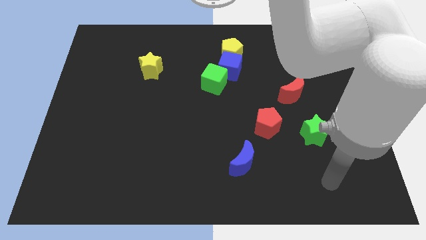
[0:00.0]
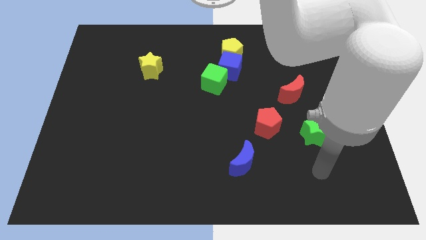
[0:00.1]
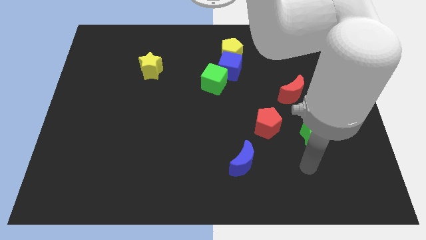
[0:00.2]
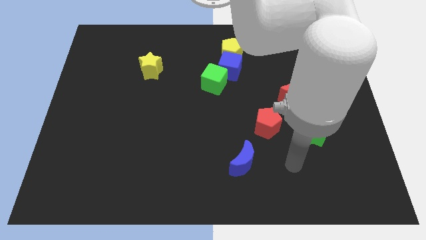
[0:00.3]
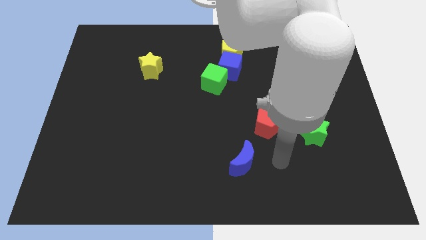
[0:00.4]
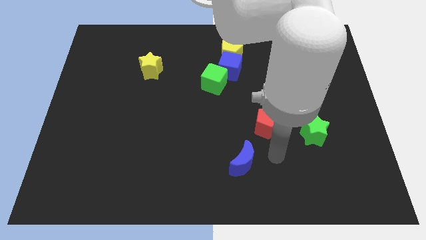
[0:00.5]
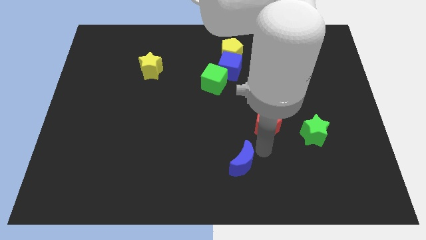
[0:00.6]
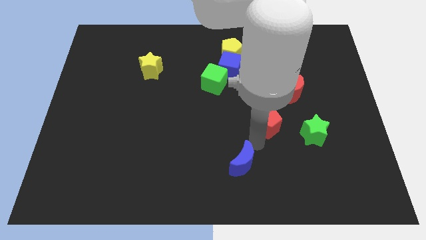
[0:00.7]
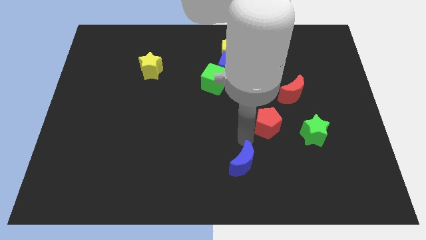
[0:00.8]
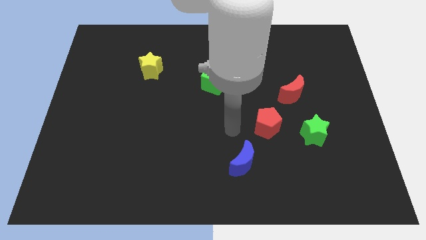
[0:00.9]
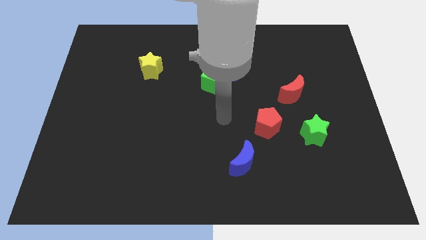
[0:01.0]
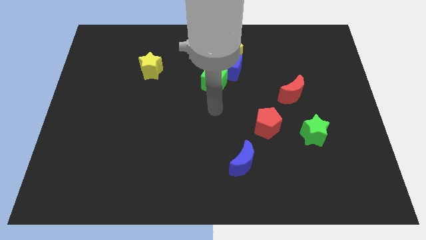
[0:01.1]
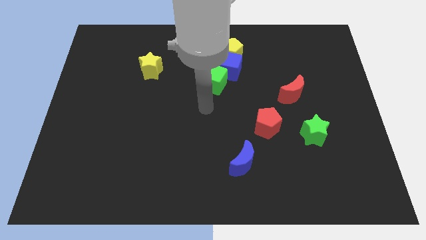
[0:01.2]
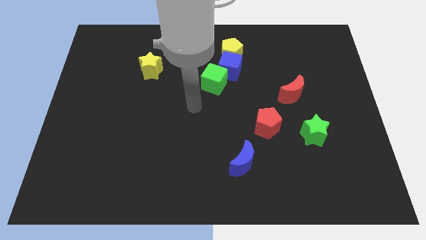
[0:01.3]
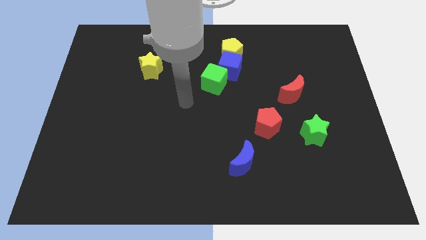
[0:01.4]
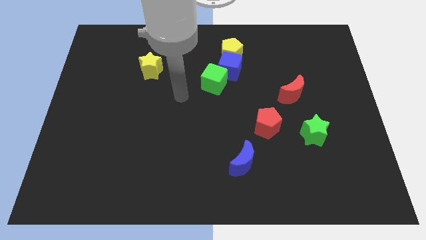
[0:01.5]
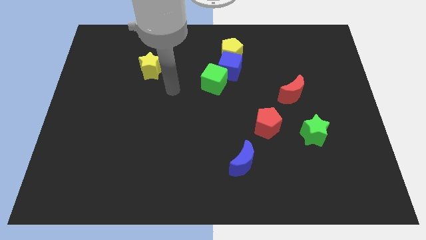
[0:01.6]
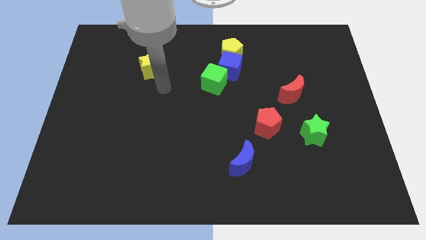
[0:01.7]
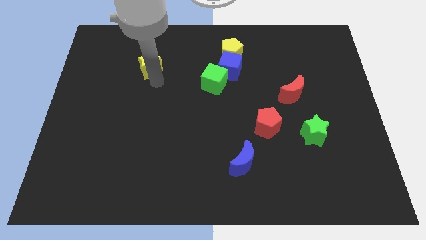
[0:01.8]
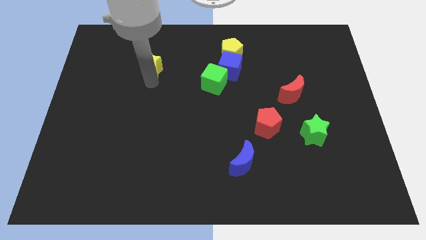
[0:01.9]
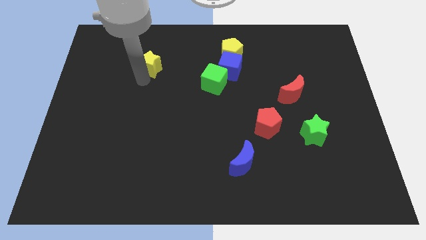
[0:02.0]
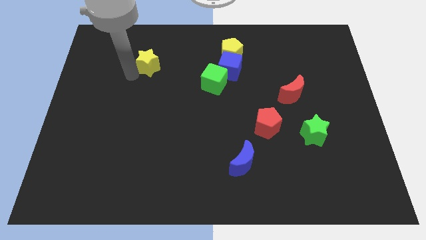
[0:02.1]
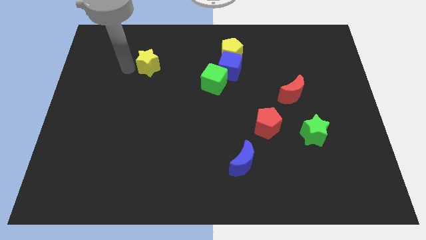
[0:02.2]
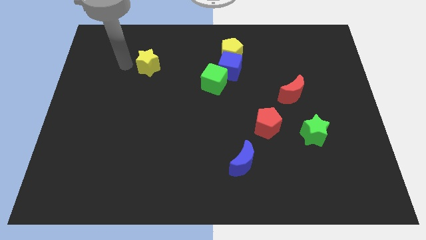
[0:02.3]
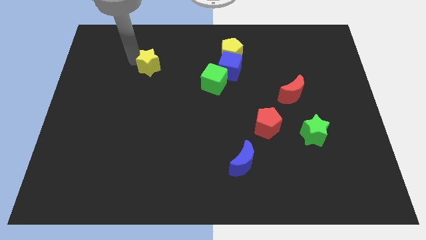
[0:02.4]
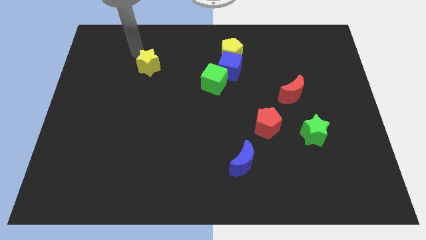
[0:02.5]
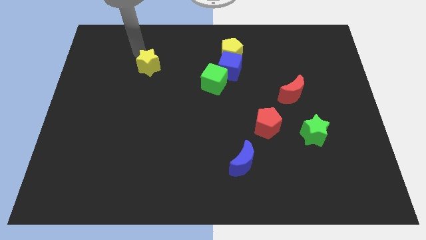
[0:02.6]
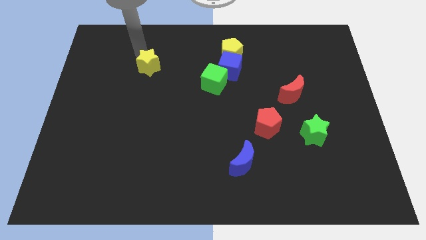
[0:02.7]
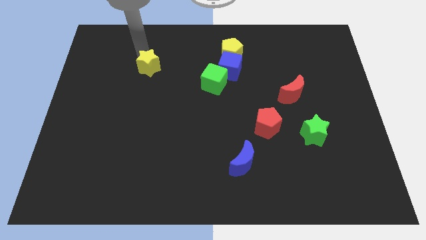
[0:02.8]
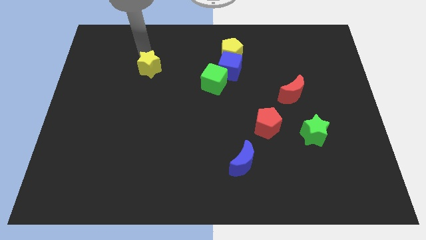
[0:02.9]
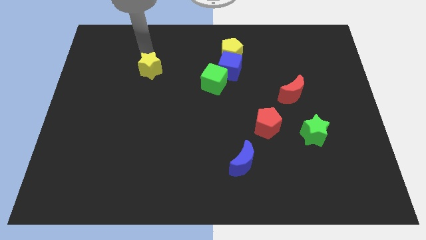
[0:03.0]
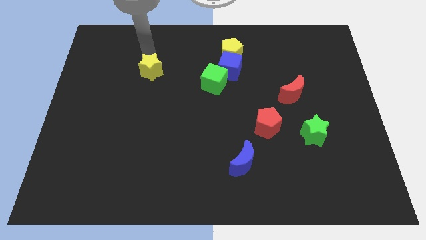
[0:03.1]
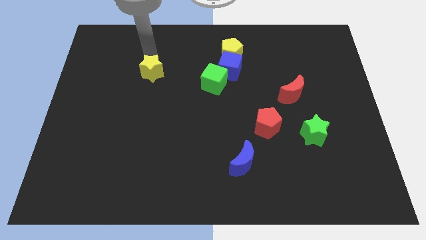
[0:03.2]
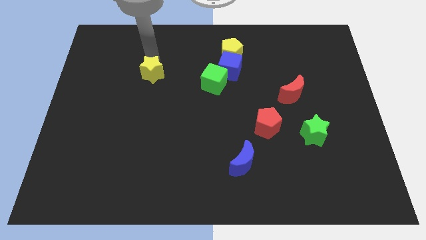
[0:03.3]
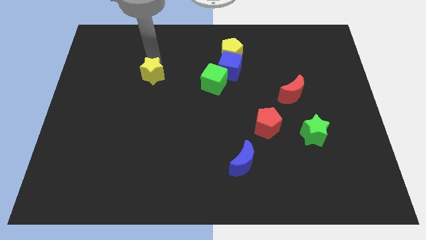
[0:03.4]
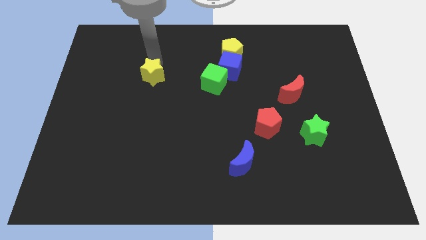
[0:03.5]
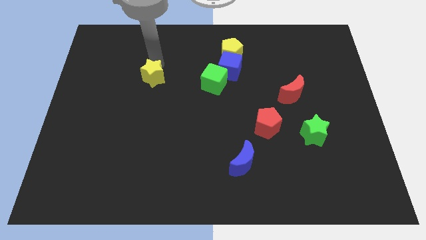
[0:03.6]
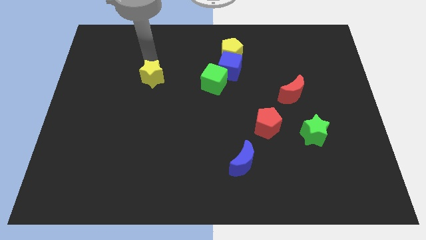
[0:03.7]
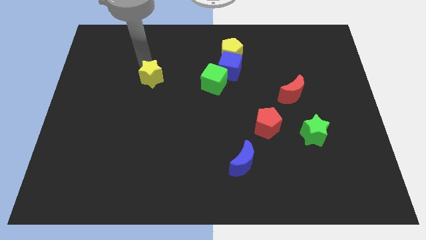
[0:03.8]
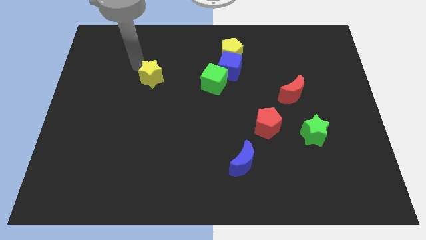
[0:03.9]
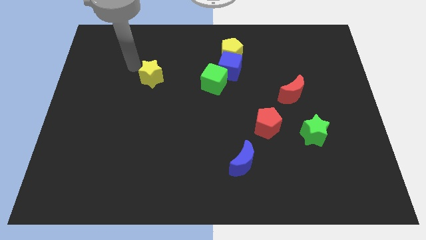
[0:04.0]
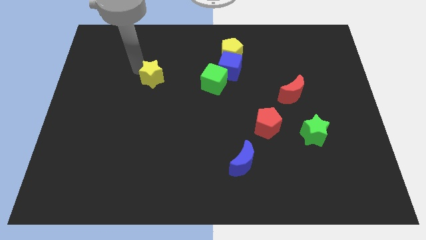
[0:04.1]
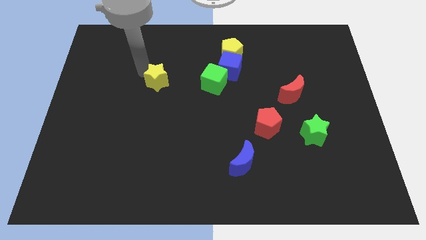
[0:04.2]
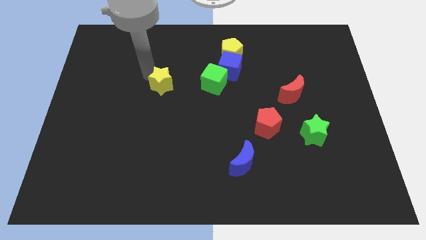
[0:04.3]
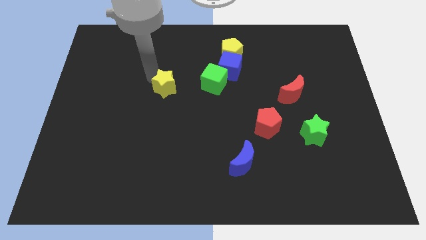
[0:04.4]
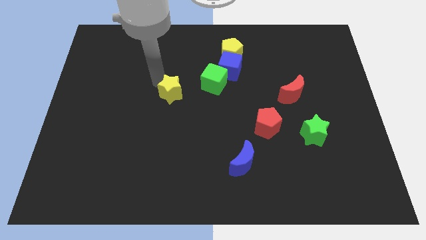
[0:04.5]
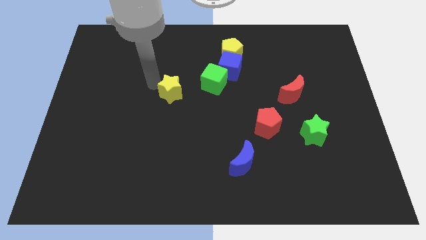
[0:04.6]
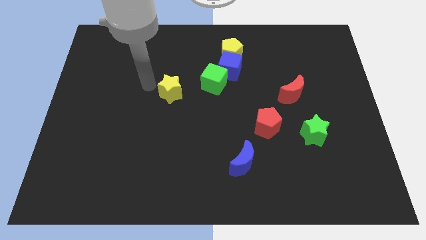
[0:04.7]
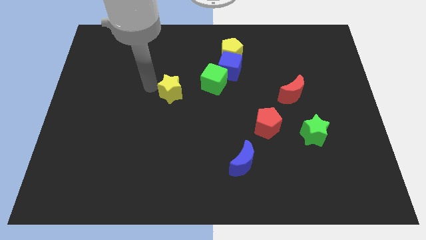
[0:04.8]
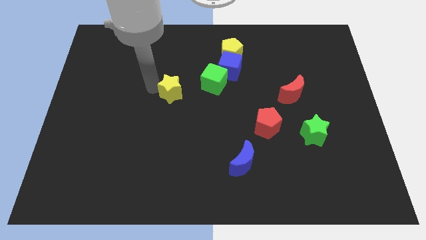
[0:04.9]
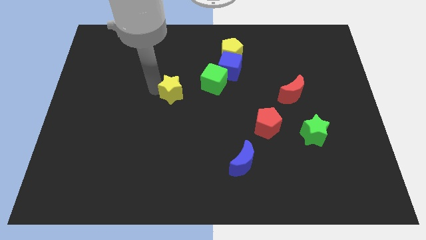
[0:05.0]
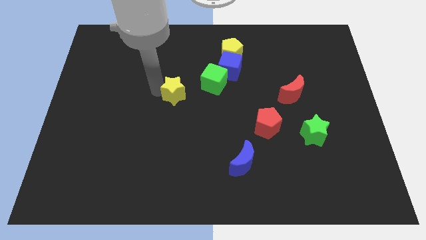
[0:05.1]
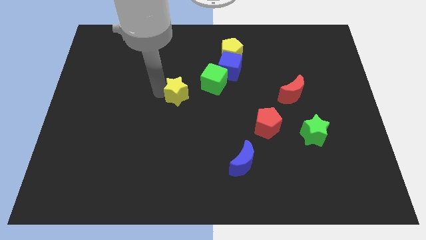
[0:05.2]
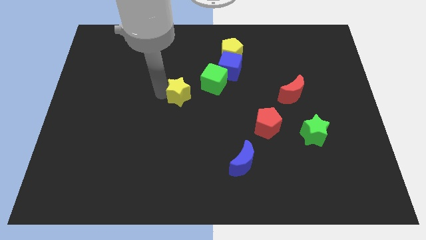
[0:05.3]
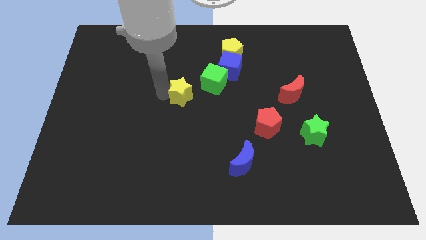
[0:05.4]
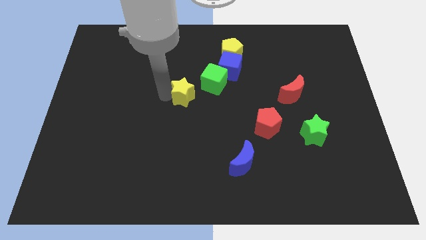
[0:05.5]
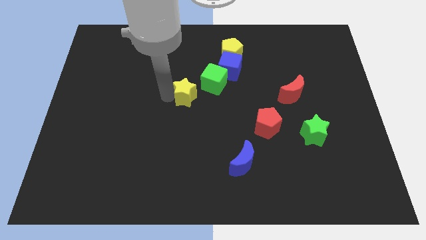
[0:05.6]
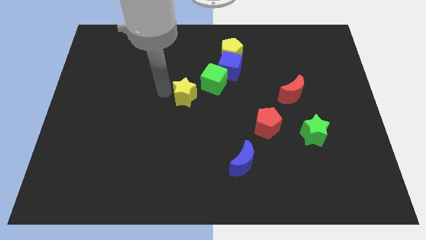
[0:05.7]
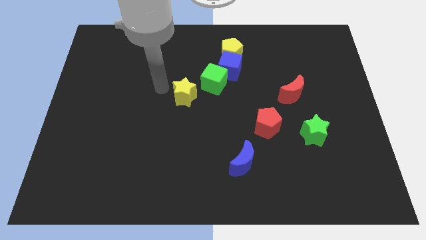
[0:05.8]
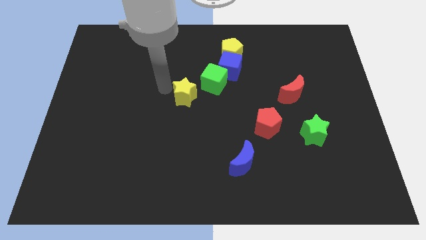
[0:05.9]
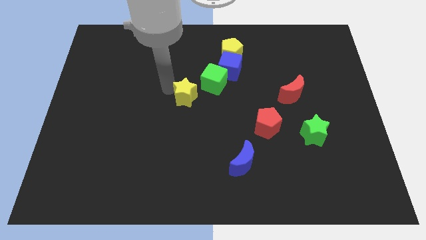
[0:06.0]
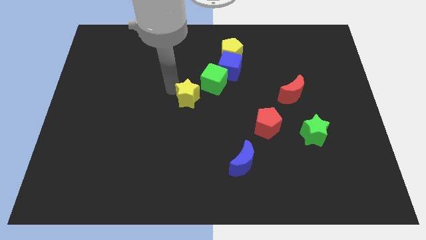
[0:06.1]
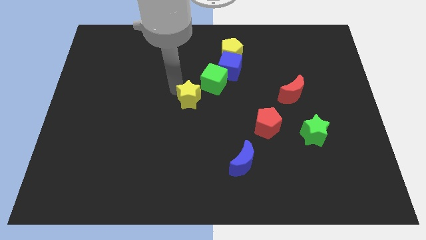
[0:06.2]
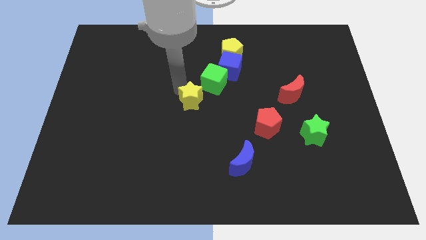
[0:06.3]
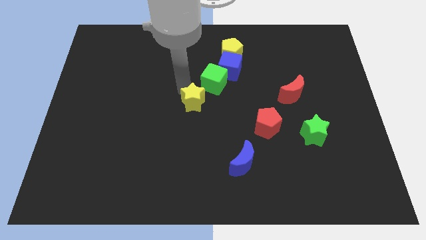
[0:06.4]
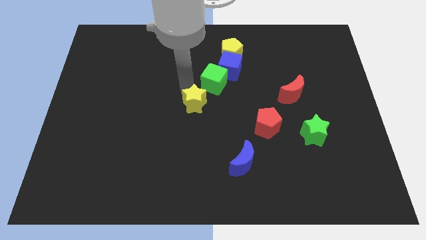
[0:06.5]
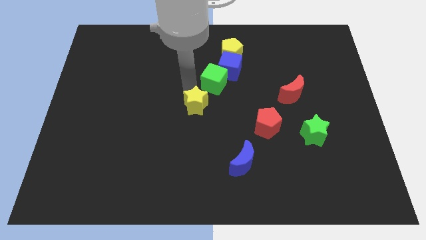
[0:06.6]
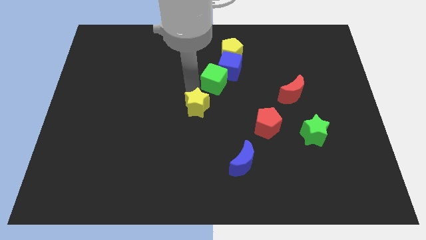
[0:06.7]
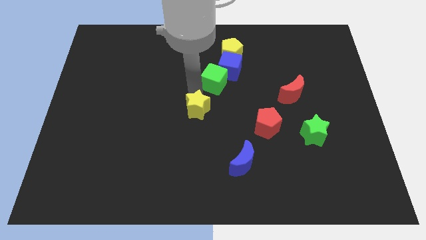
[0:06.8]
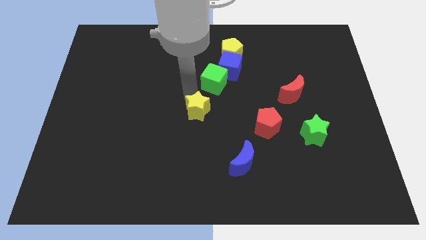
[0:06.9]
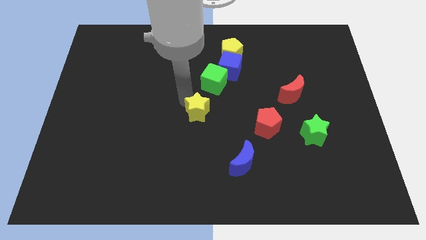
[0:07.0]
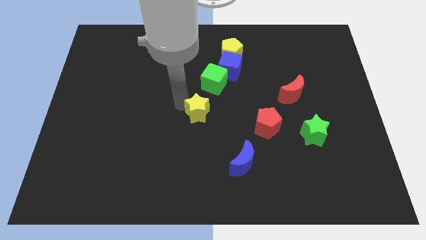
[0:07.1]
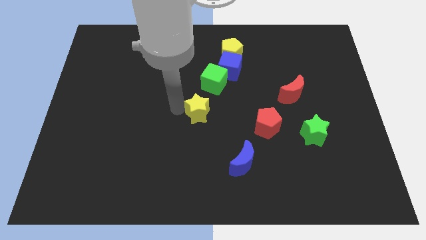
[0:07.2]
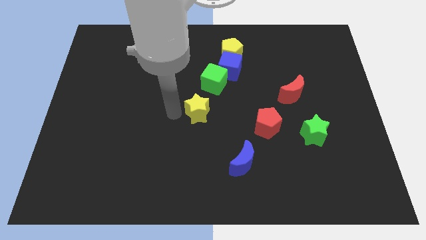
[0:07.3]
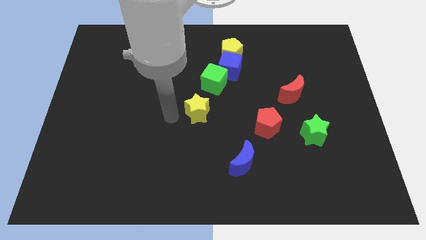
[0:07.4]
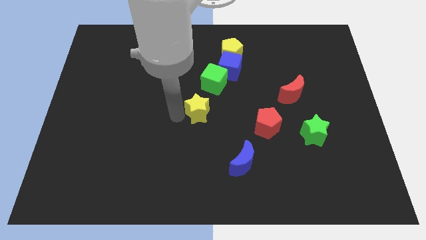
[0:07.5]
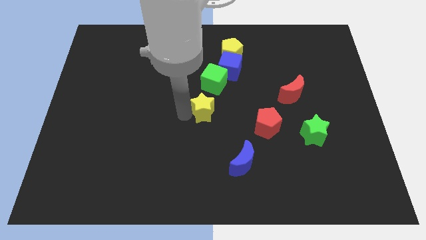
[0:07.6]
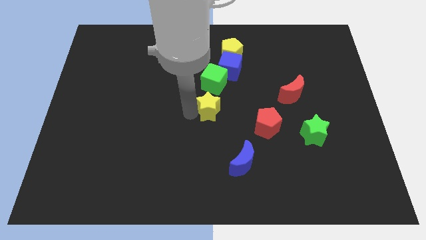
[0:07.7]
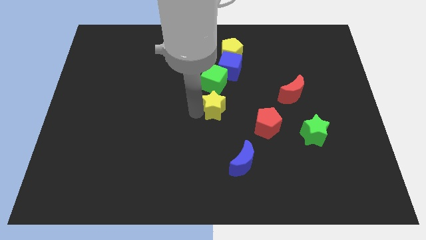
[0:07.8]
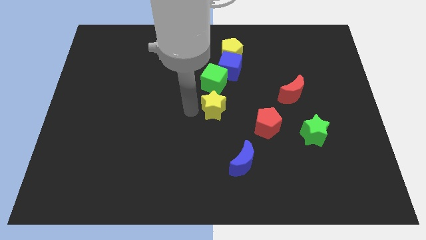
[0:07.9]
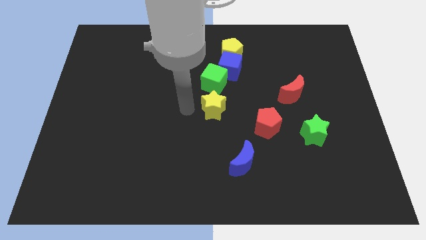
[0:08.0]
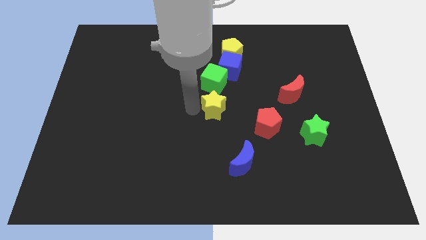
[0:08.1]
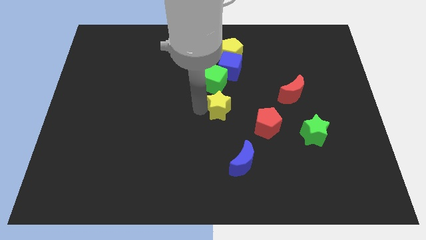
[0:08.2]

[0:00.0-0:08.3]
slide the yellow star to the top left side of the red pentagon
